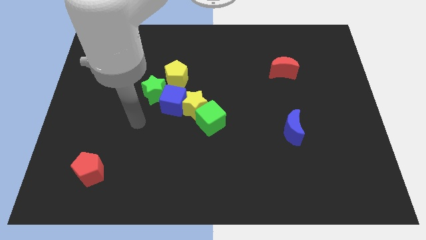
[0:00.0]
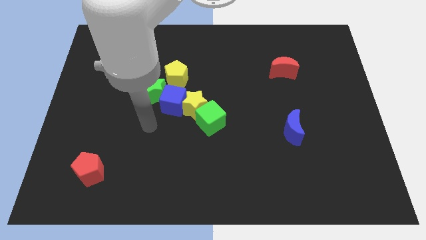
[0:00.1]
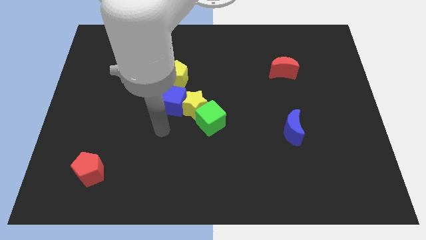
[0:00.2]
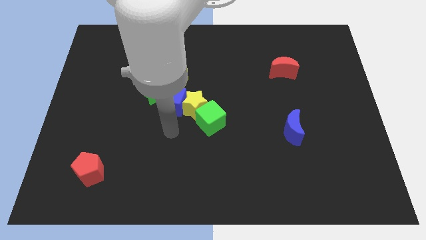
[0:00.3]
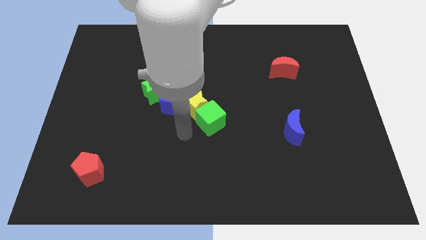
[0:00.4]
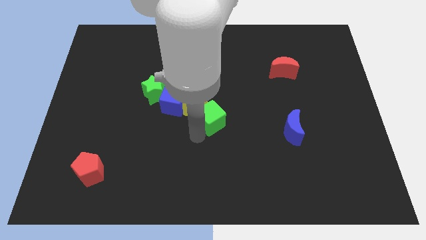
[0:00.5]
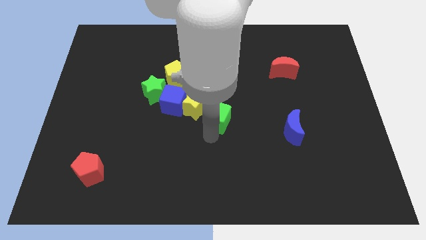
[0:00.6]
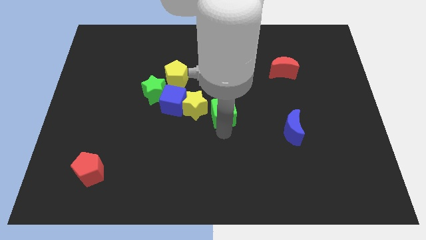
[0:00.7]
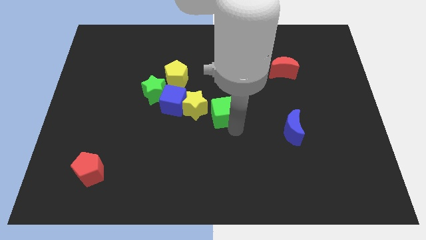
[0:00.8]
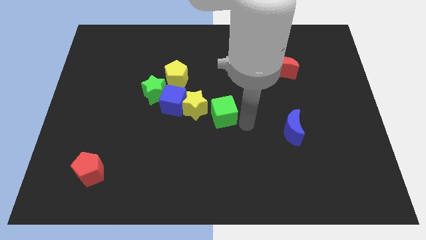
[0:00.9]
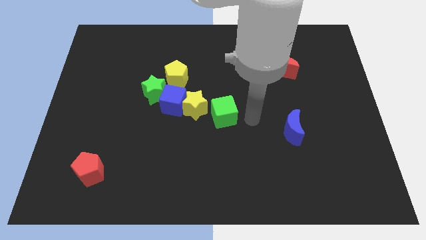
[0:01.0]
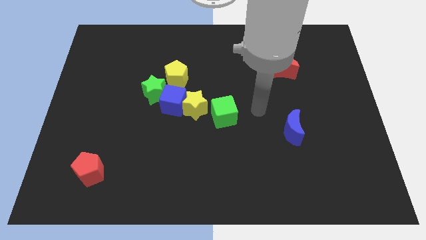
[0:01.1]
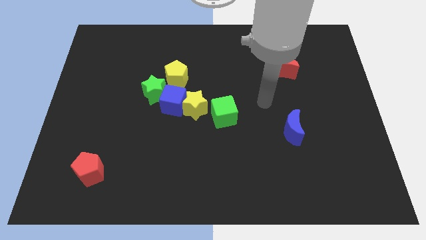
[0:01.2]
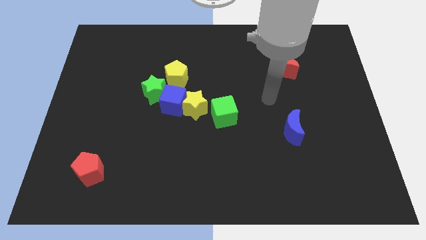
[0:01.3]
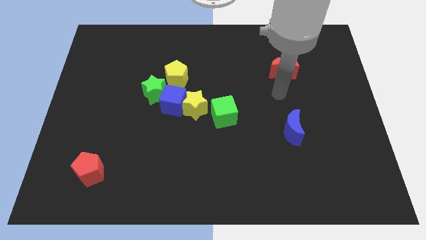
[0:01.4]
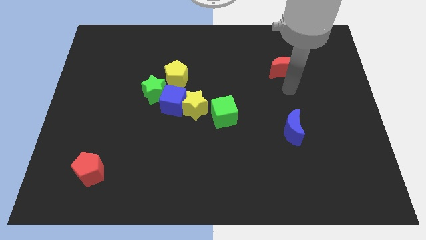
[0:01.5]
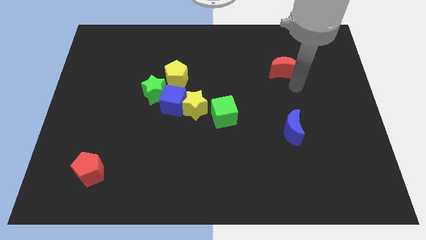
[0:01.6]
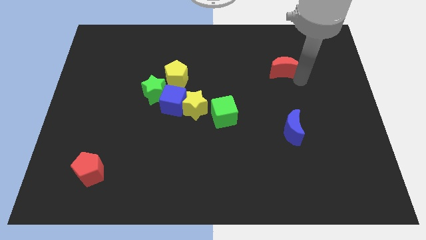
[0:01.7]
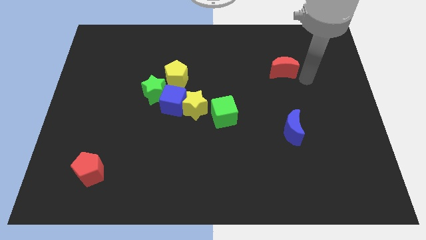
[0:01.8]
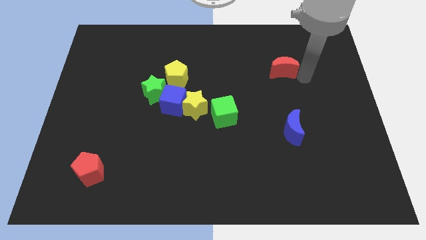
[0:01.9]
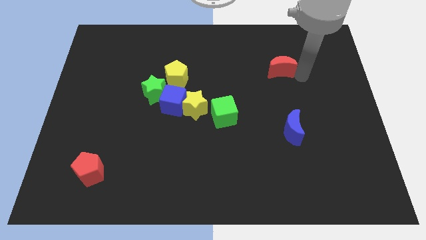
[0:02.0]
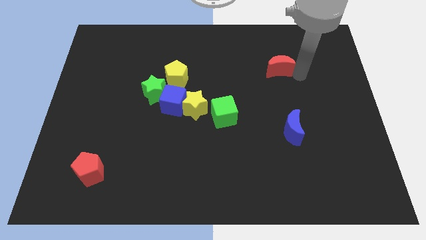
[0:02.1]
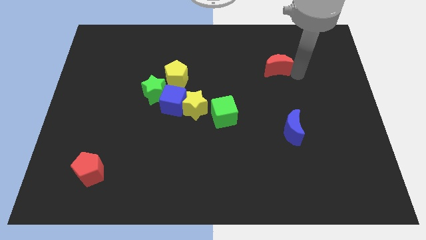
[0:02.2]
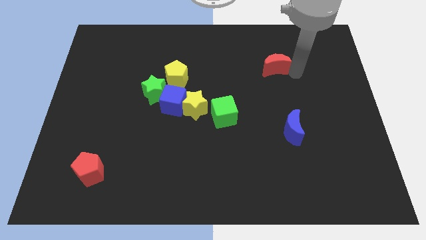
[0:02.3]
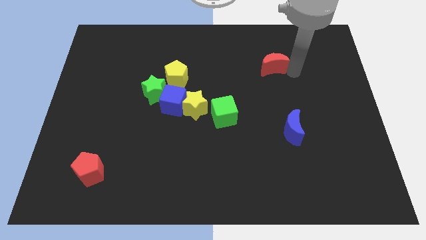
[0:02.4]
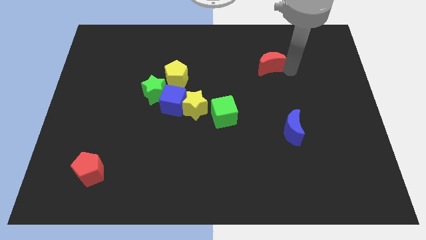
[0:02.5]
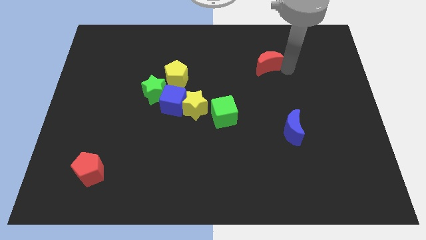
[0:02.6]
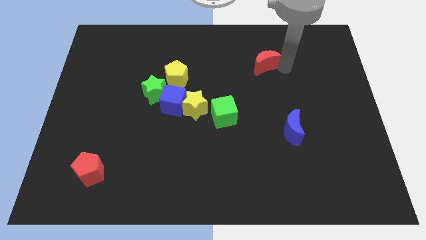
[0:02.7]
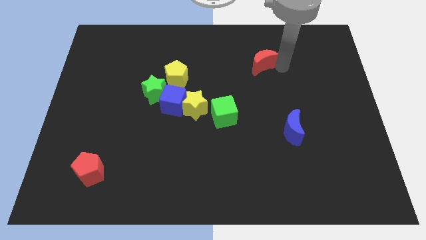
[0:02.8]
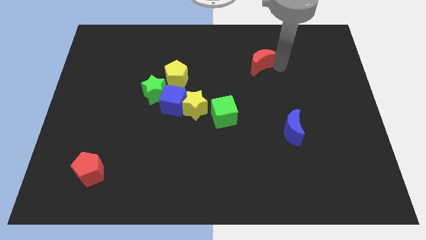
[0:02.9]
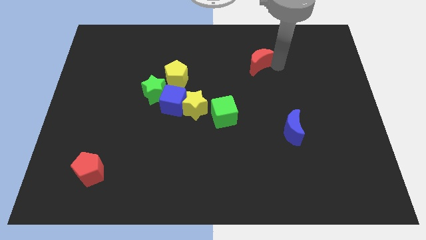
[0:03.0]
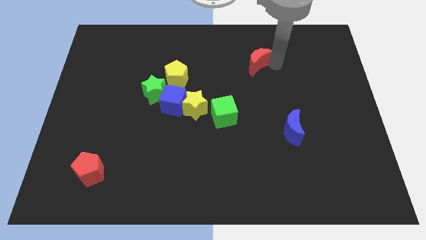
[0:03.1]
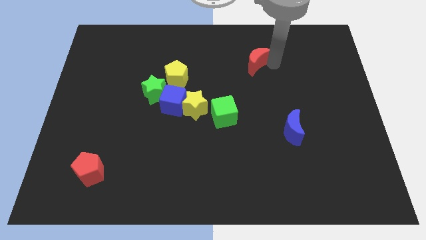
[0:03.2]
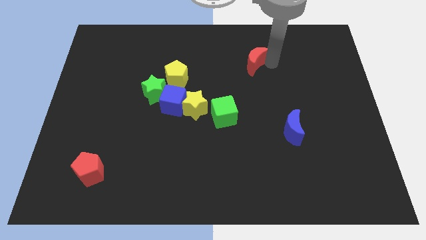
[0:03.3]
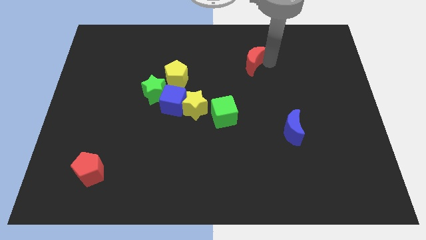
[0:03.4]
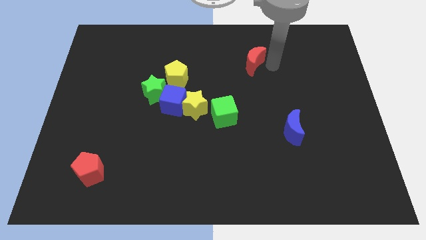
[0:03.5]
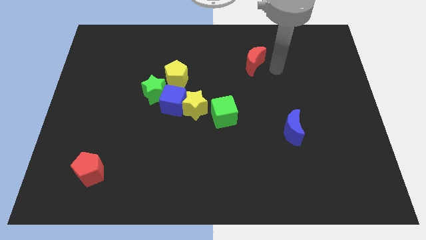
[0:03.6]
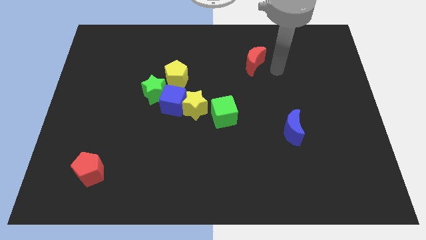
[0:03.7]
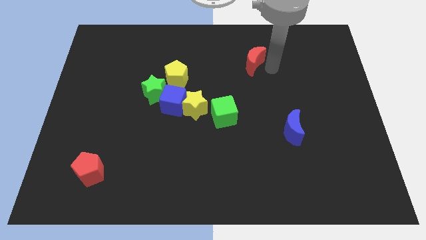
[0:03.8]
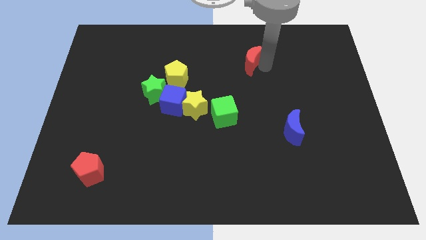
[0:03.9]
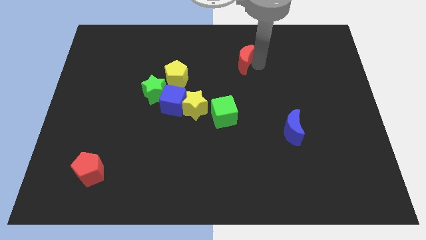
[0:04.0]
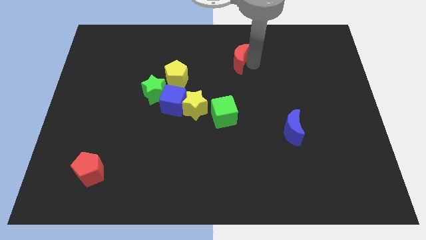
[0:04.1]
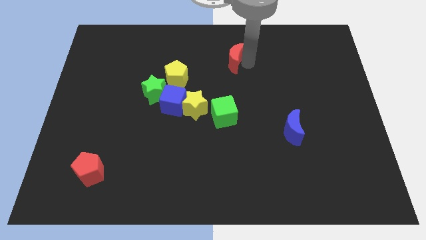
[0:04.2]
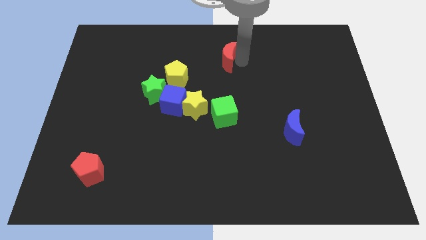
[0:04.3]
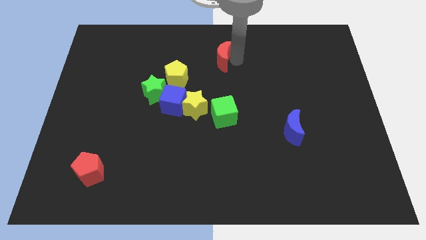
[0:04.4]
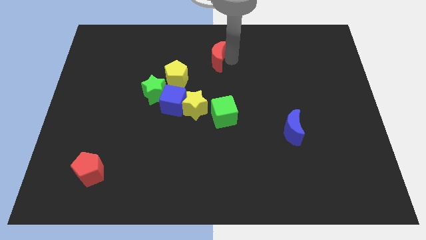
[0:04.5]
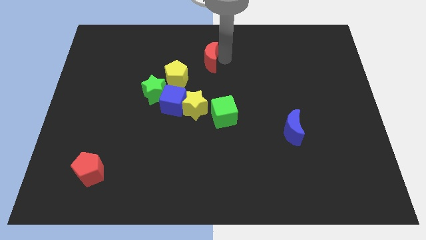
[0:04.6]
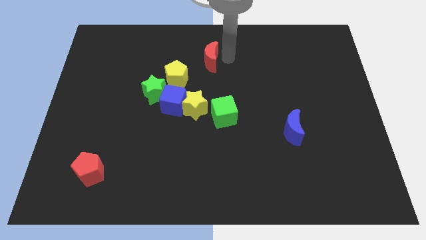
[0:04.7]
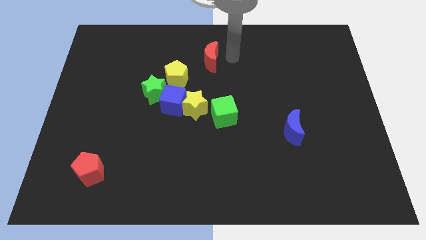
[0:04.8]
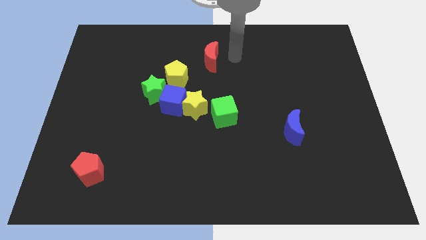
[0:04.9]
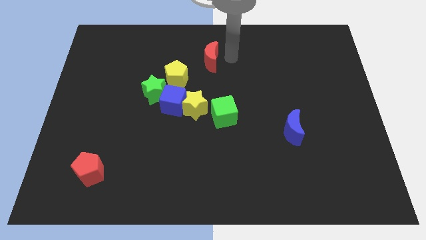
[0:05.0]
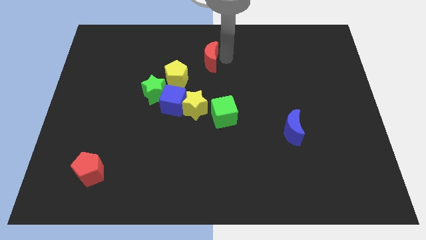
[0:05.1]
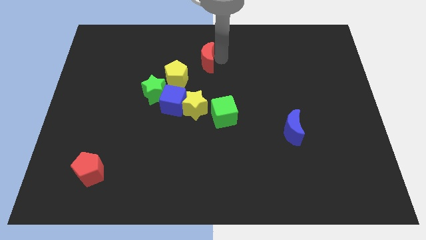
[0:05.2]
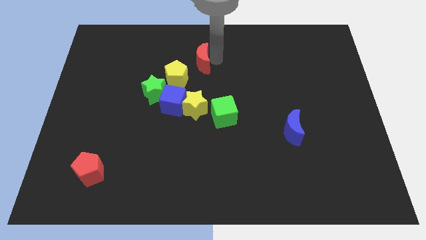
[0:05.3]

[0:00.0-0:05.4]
slide the red moon left

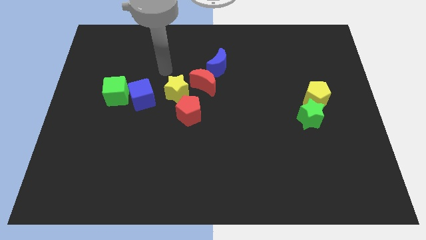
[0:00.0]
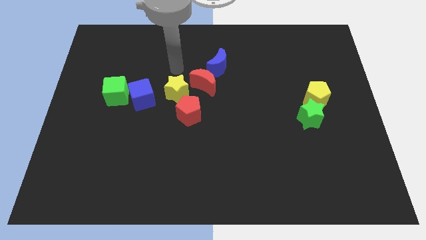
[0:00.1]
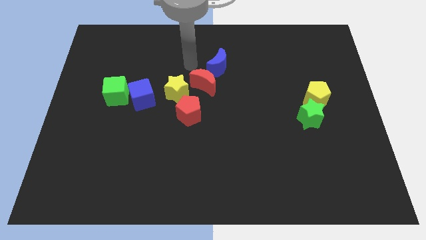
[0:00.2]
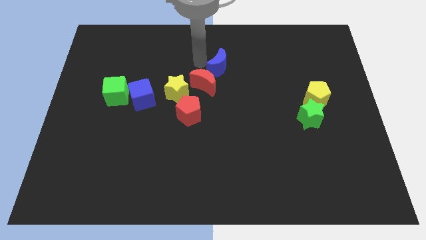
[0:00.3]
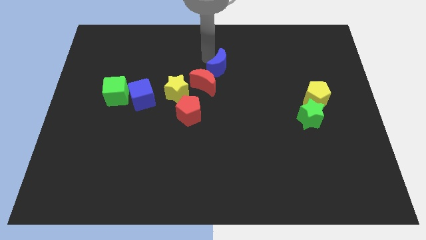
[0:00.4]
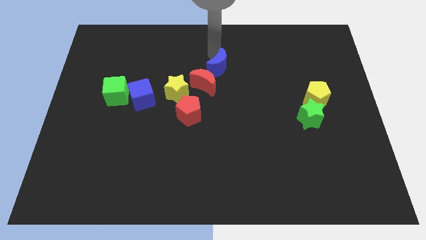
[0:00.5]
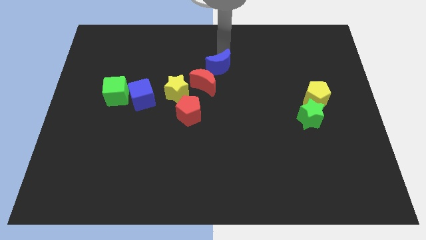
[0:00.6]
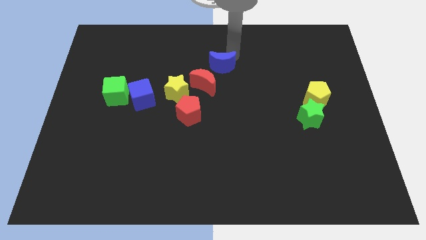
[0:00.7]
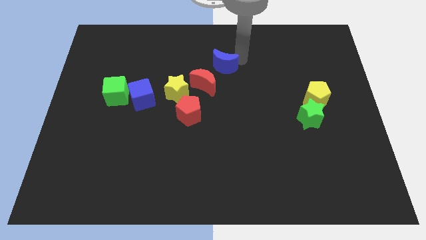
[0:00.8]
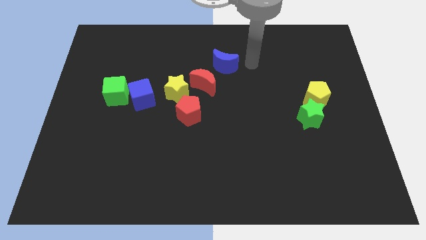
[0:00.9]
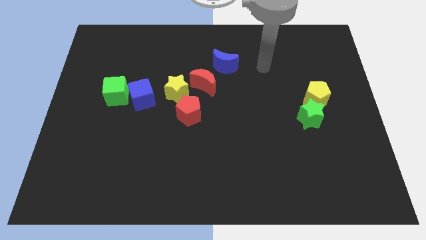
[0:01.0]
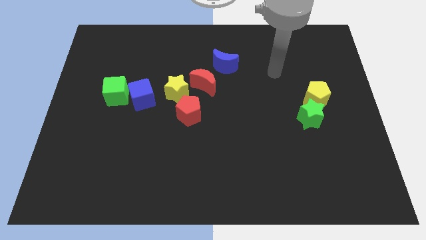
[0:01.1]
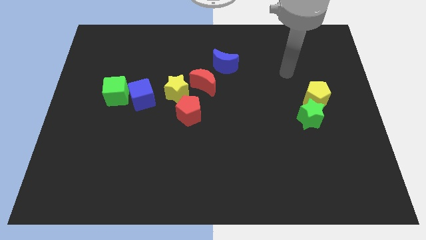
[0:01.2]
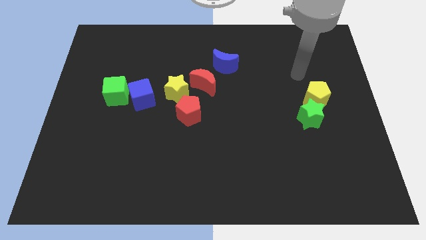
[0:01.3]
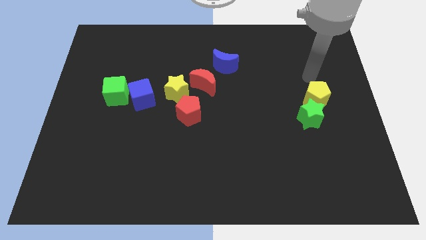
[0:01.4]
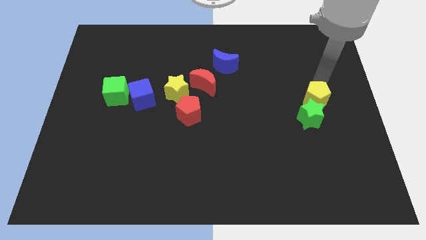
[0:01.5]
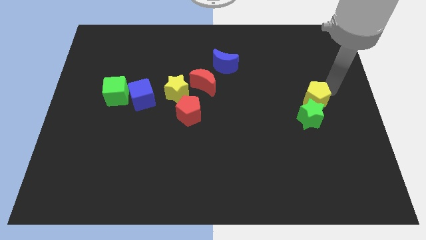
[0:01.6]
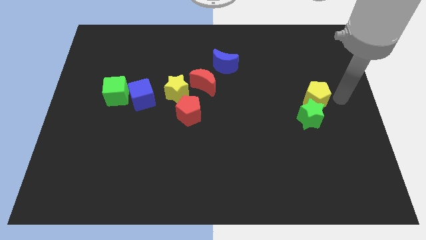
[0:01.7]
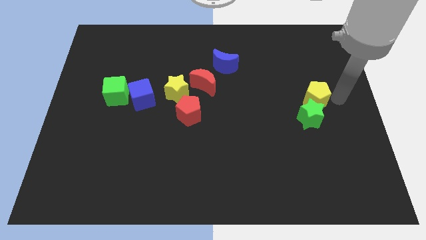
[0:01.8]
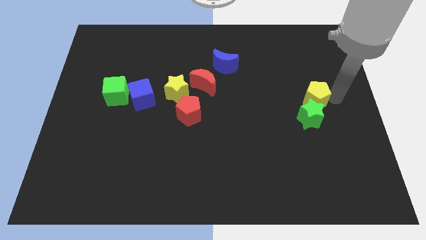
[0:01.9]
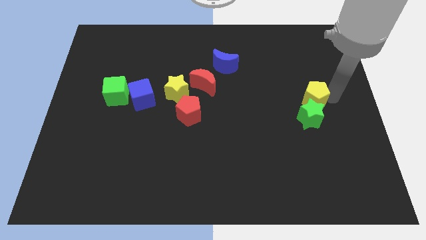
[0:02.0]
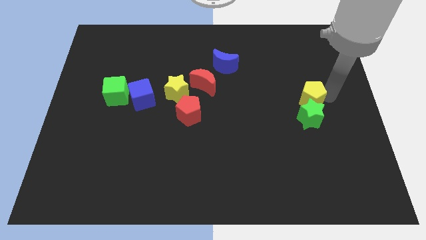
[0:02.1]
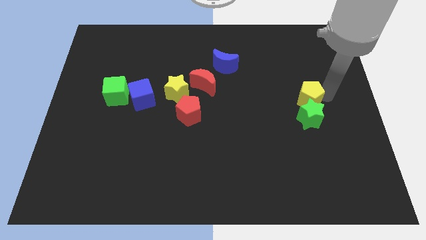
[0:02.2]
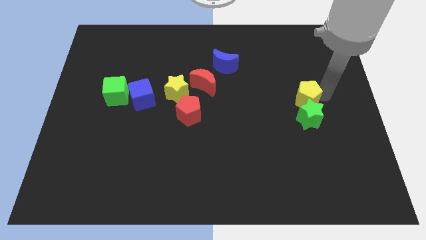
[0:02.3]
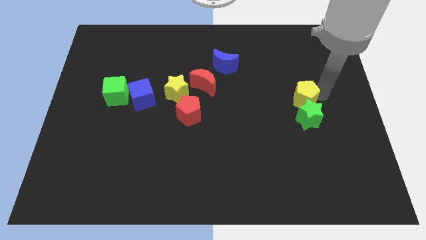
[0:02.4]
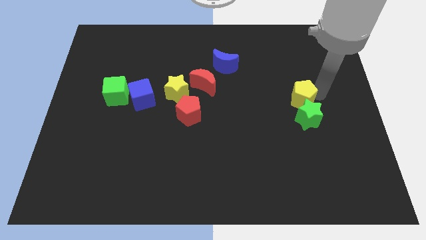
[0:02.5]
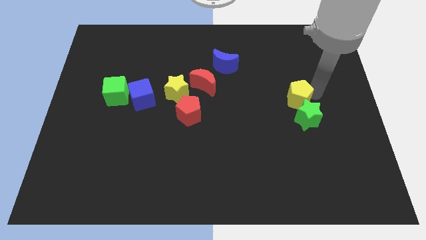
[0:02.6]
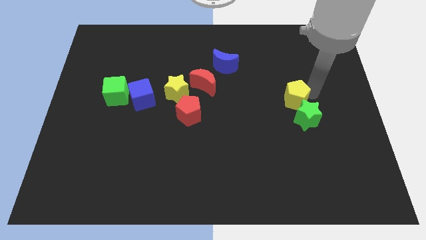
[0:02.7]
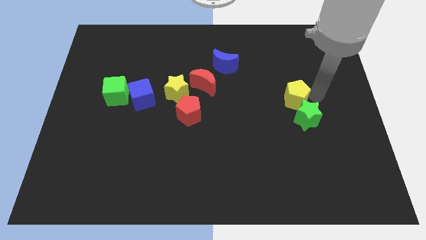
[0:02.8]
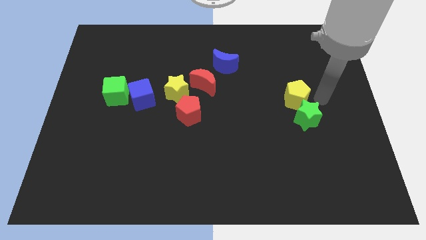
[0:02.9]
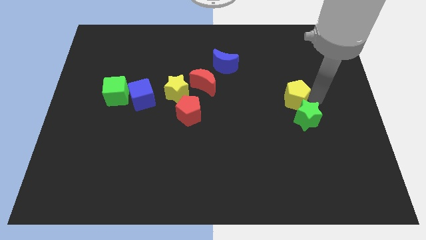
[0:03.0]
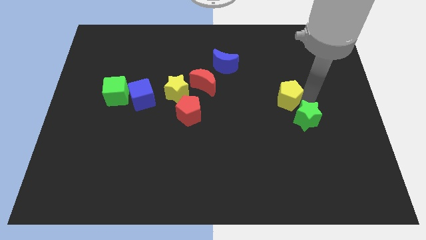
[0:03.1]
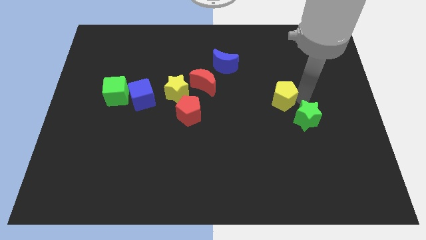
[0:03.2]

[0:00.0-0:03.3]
move the yellow pentagon to the left a little

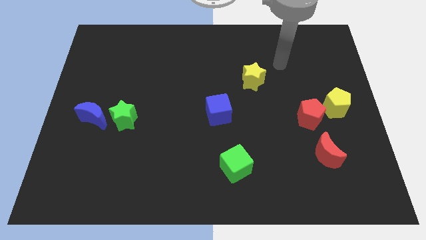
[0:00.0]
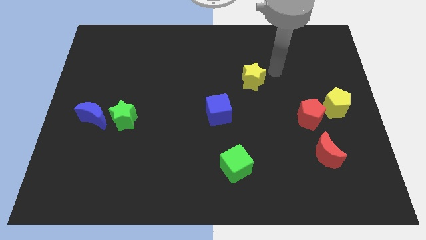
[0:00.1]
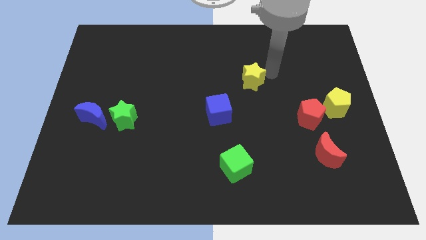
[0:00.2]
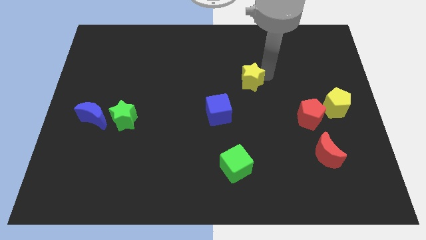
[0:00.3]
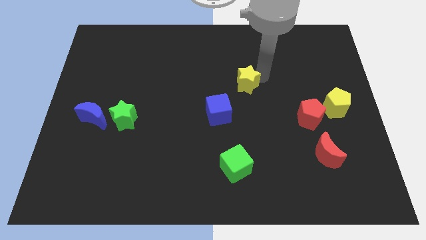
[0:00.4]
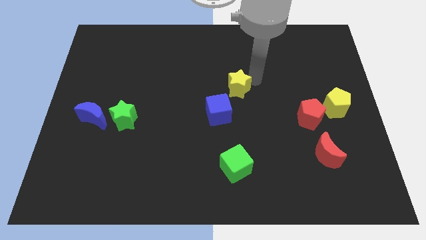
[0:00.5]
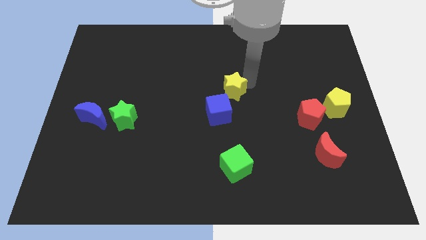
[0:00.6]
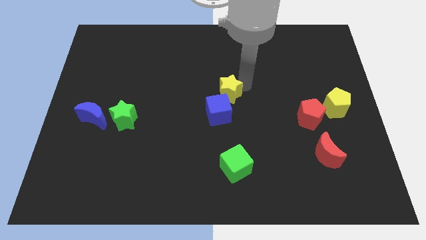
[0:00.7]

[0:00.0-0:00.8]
slightly slide the yellow star downwards and then left
